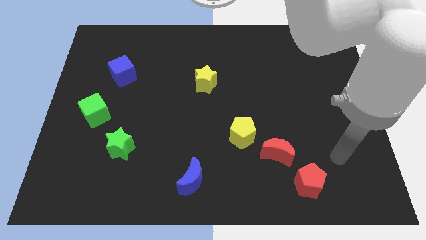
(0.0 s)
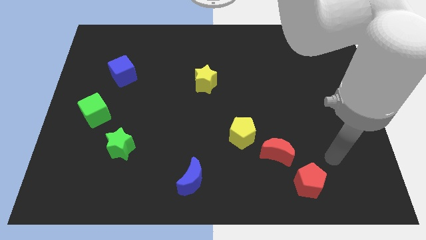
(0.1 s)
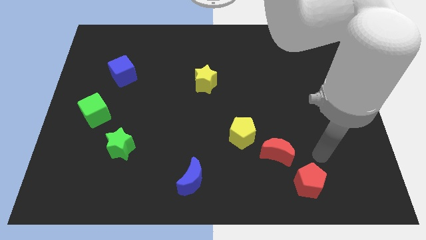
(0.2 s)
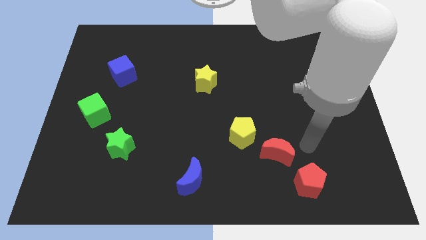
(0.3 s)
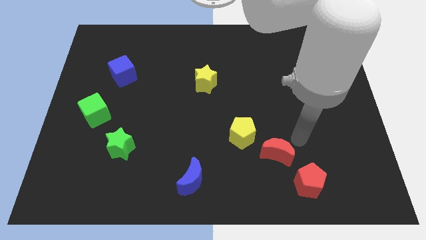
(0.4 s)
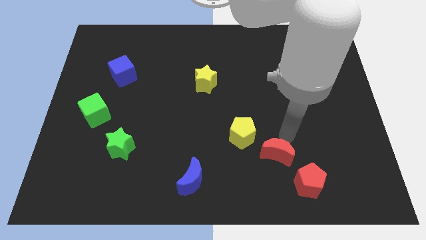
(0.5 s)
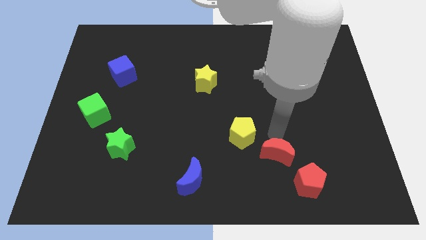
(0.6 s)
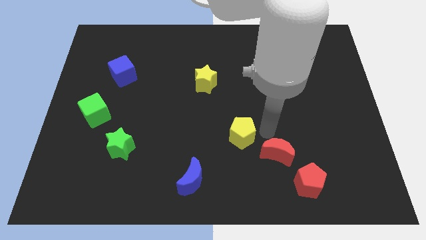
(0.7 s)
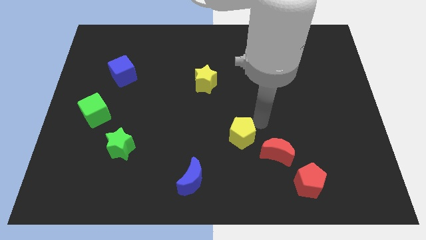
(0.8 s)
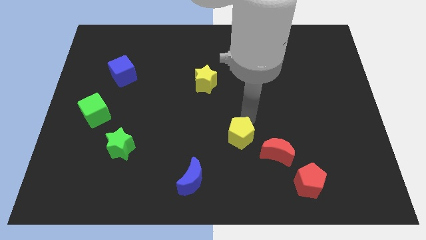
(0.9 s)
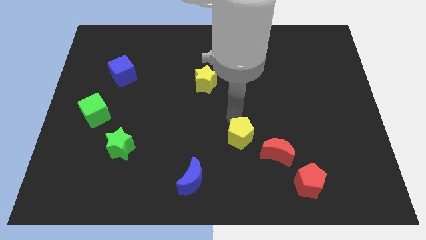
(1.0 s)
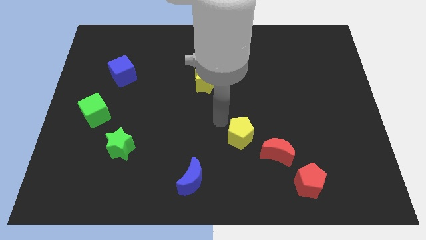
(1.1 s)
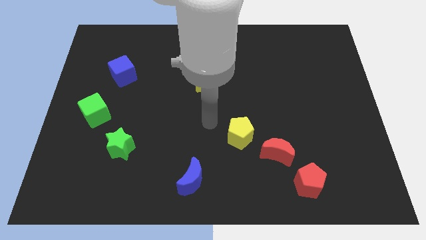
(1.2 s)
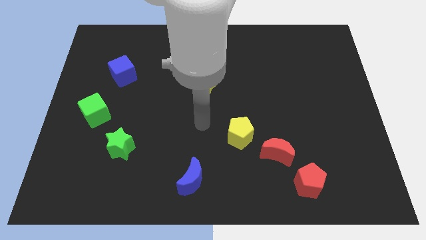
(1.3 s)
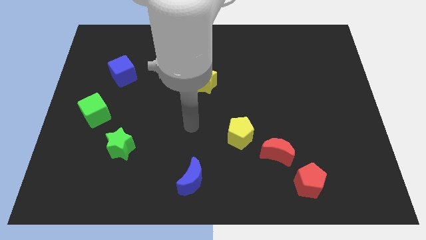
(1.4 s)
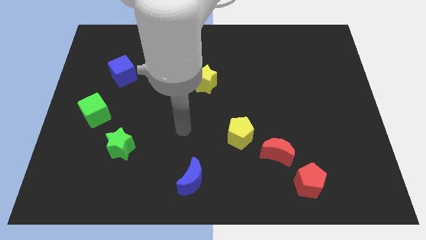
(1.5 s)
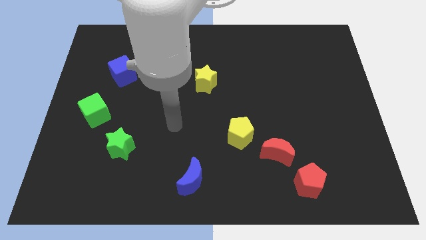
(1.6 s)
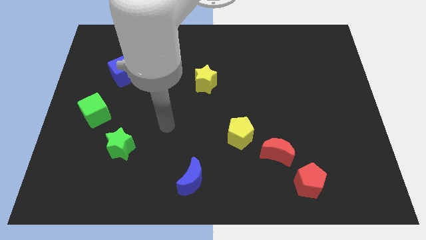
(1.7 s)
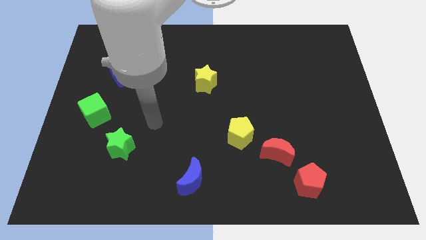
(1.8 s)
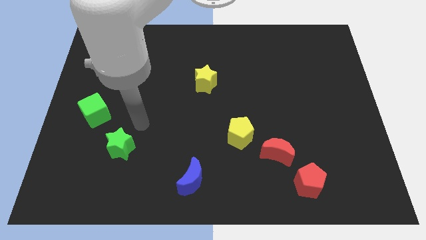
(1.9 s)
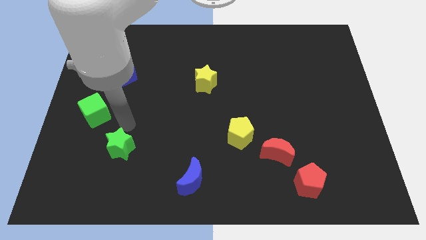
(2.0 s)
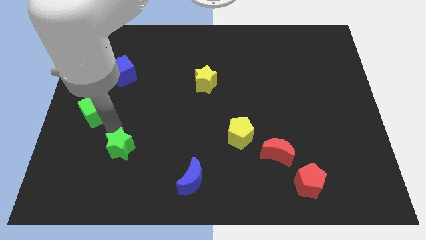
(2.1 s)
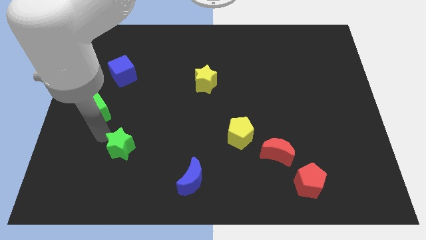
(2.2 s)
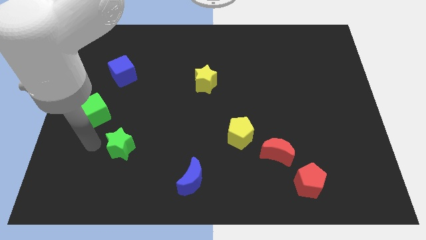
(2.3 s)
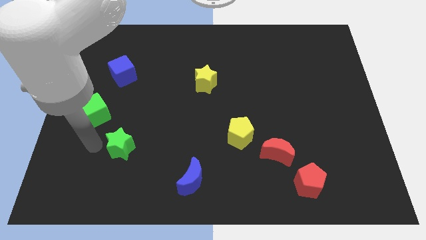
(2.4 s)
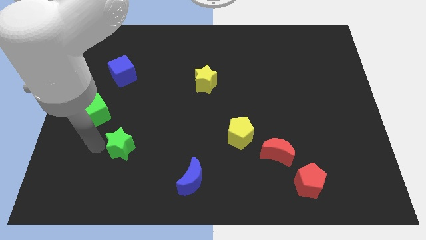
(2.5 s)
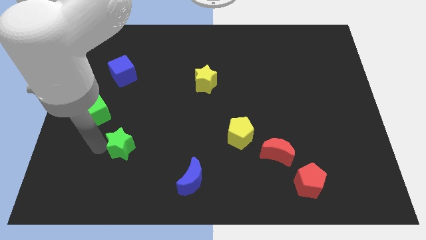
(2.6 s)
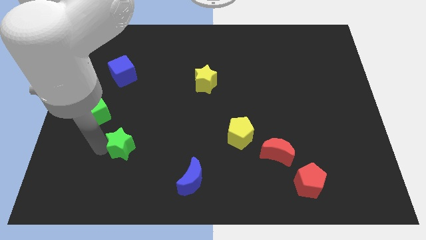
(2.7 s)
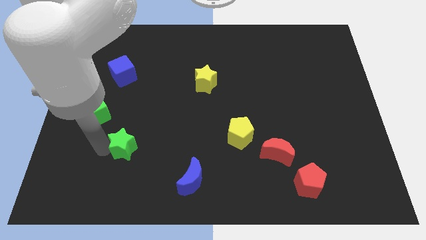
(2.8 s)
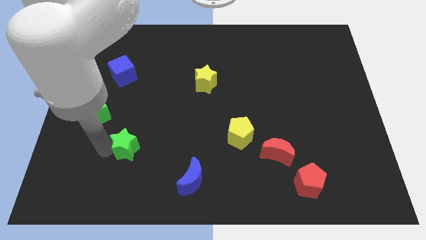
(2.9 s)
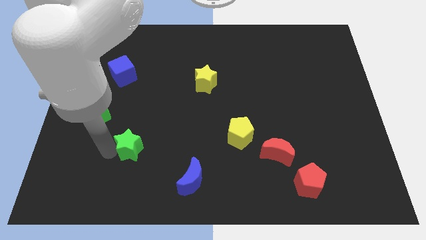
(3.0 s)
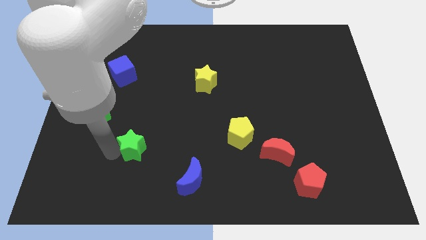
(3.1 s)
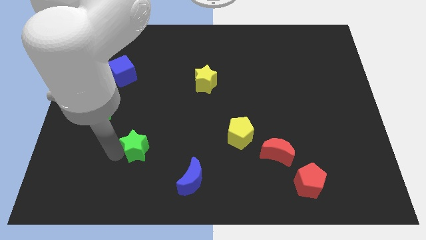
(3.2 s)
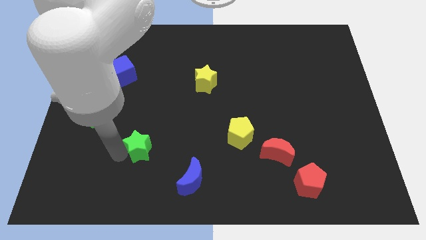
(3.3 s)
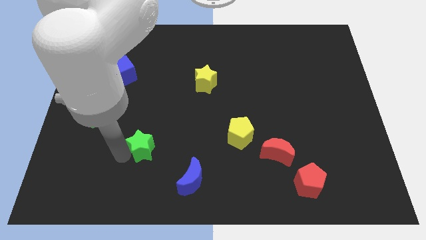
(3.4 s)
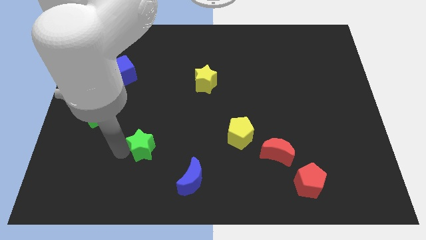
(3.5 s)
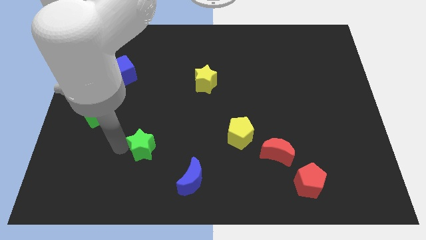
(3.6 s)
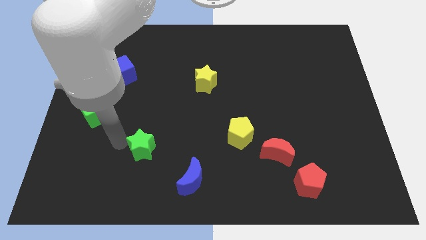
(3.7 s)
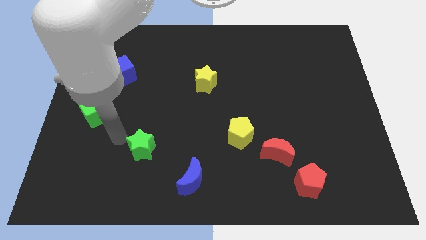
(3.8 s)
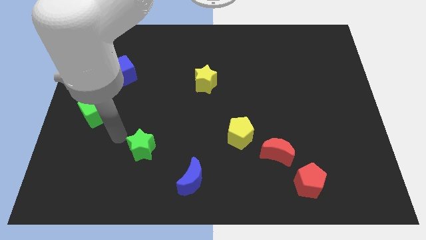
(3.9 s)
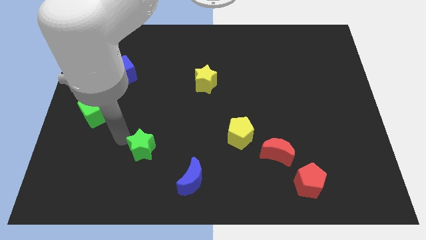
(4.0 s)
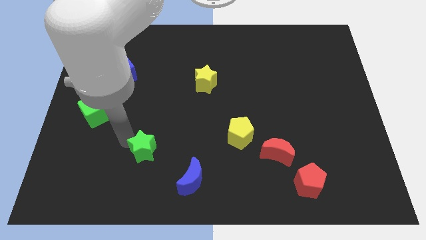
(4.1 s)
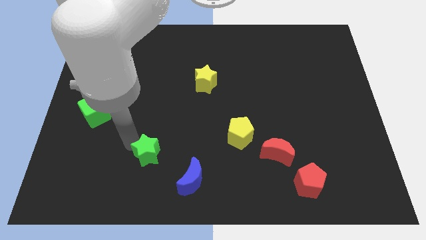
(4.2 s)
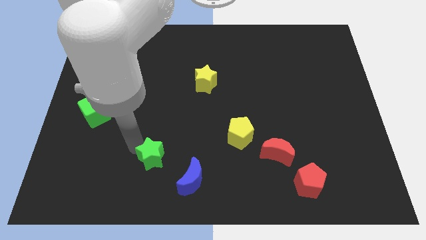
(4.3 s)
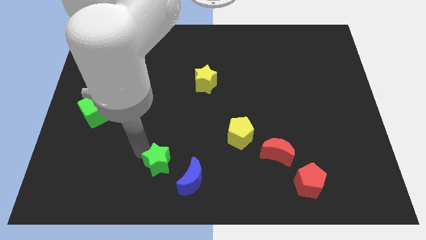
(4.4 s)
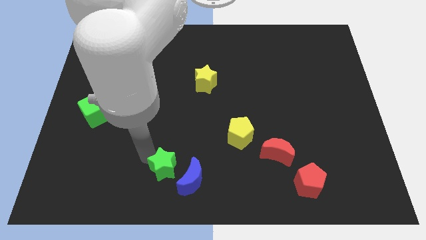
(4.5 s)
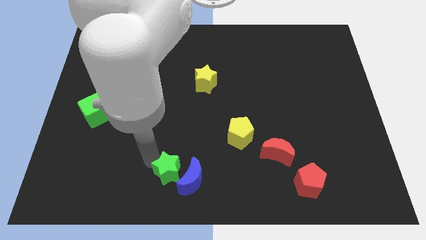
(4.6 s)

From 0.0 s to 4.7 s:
slide the green star towards the blue moon

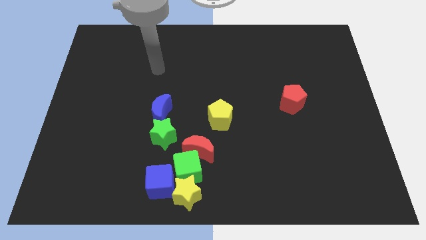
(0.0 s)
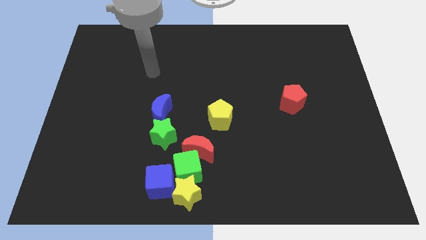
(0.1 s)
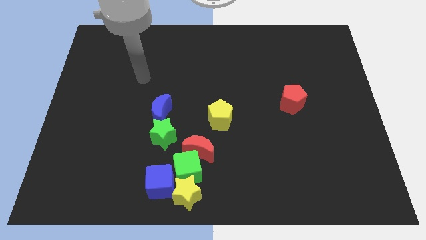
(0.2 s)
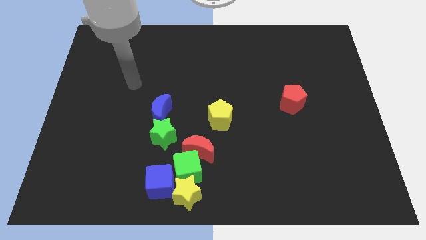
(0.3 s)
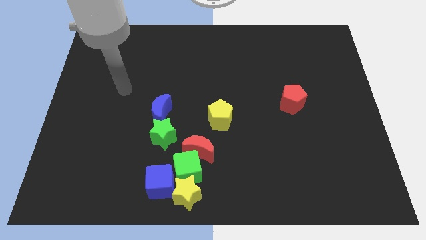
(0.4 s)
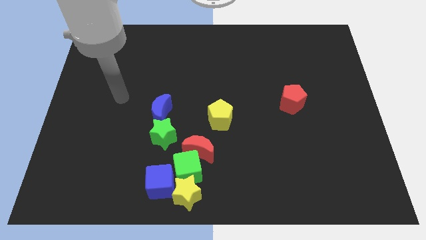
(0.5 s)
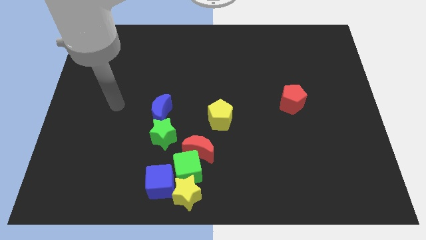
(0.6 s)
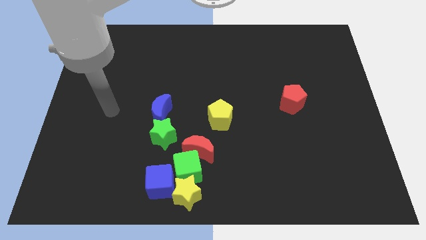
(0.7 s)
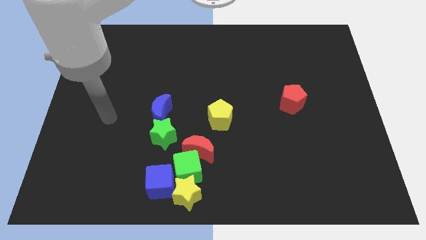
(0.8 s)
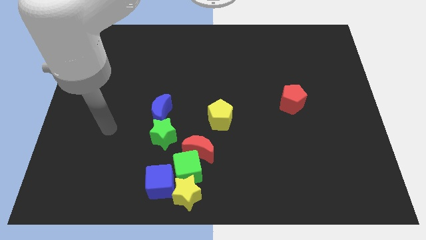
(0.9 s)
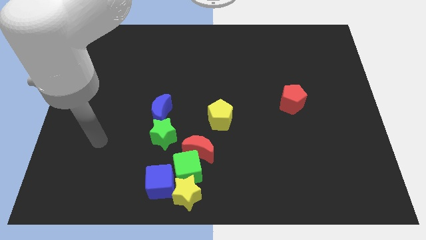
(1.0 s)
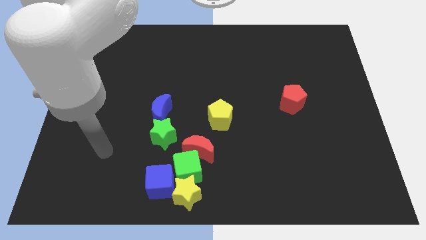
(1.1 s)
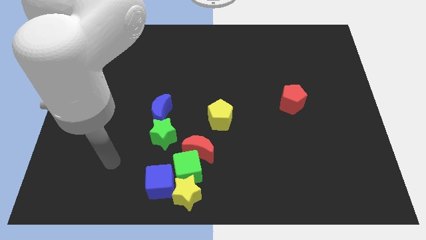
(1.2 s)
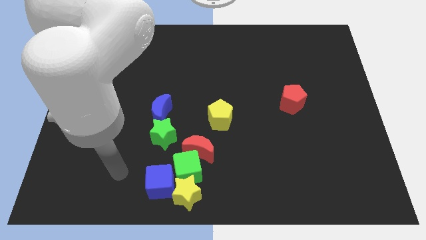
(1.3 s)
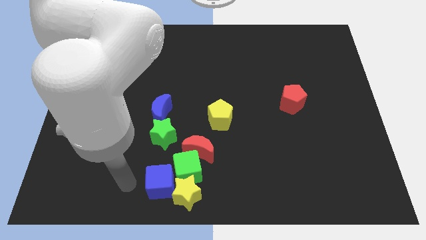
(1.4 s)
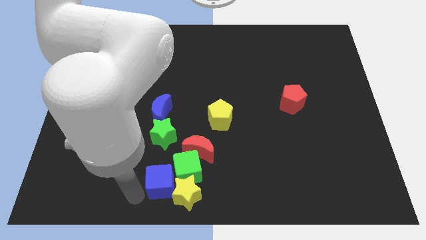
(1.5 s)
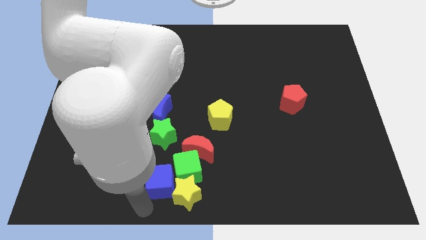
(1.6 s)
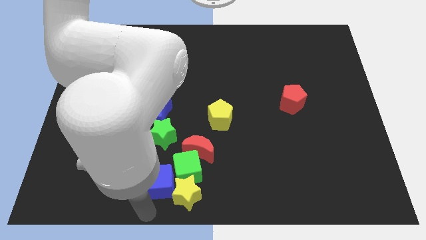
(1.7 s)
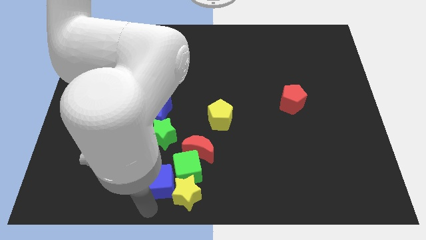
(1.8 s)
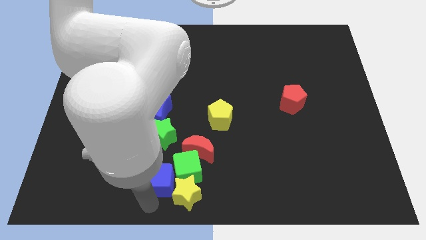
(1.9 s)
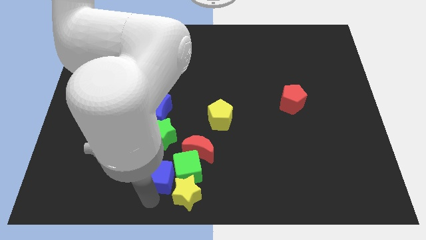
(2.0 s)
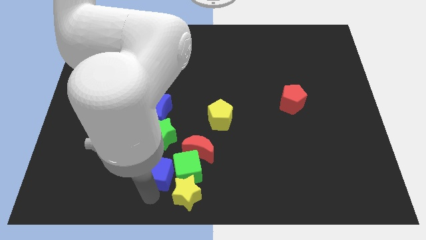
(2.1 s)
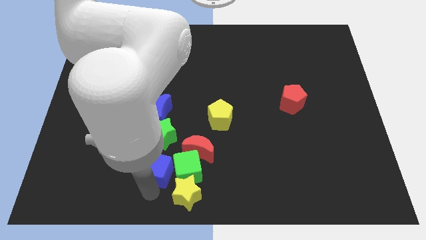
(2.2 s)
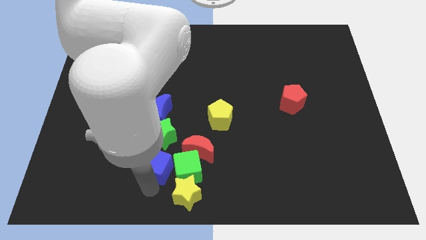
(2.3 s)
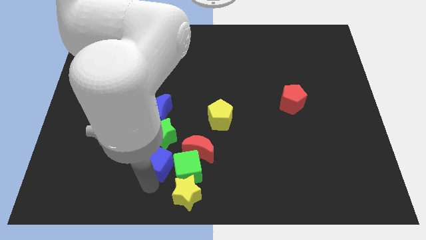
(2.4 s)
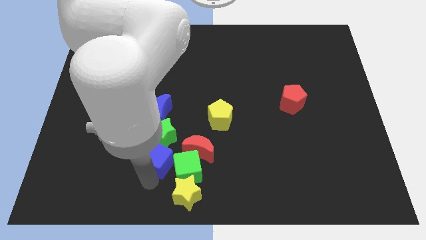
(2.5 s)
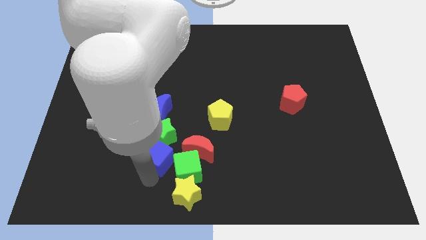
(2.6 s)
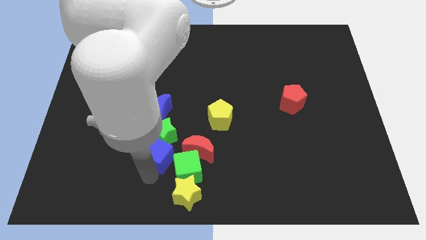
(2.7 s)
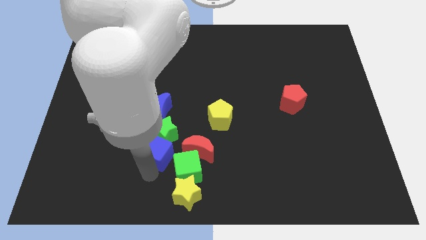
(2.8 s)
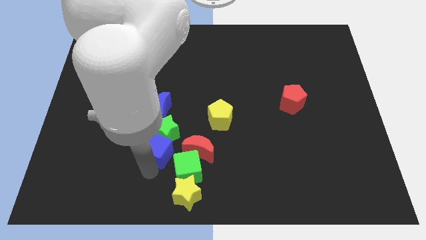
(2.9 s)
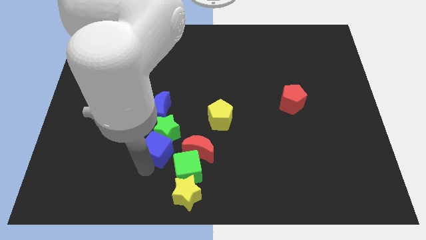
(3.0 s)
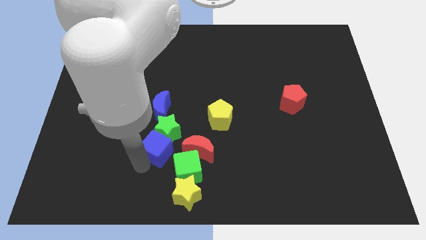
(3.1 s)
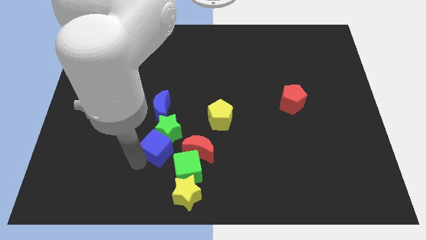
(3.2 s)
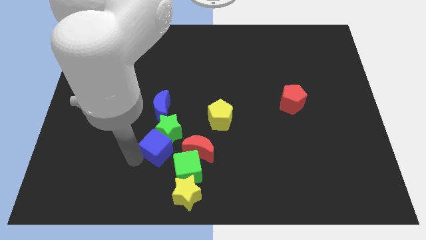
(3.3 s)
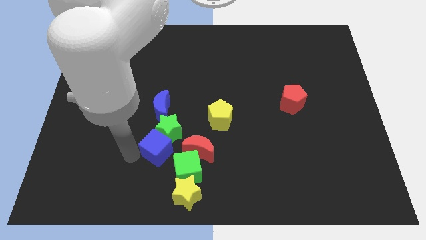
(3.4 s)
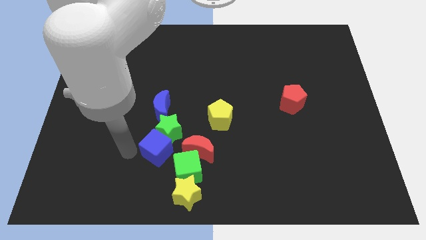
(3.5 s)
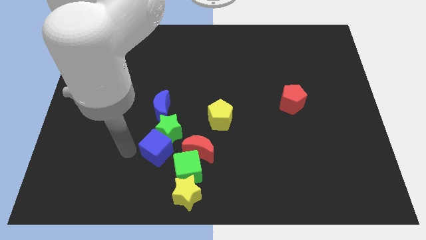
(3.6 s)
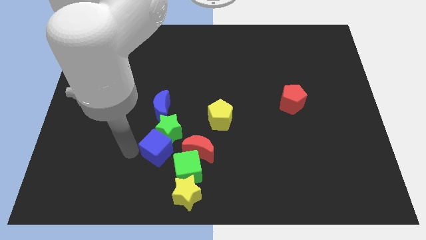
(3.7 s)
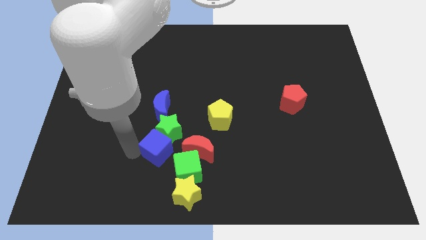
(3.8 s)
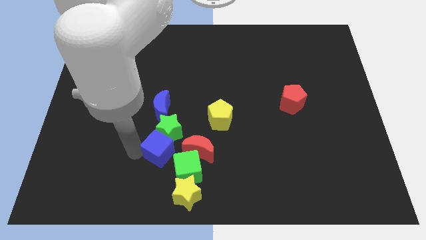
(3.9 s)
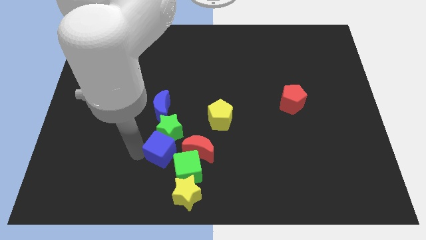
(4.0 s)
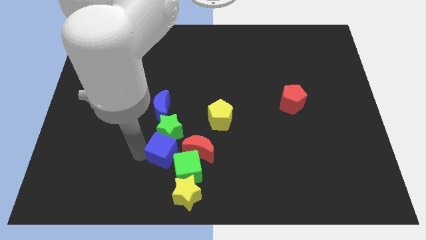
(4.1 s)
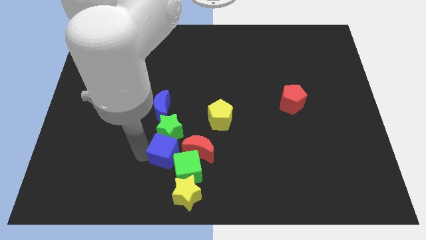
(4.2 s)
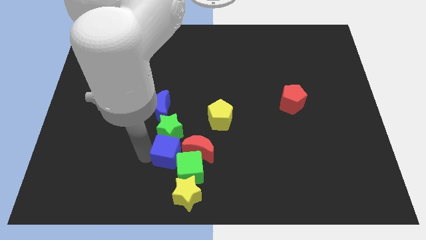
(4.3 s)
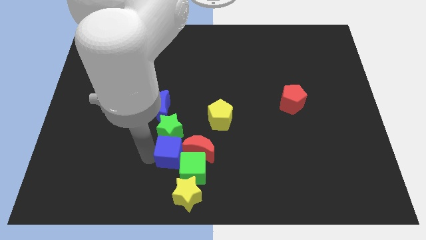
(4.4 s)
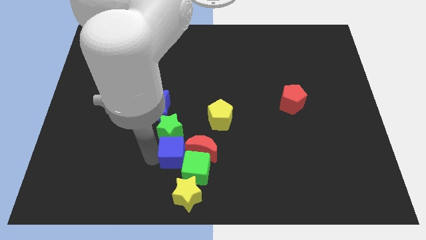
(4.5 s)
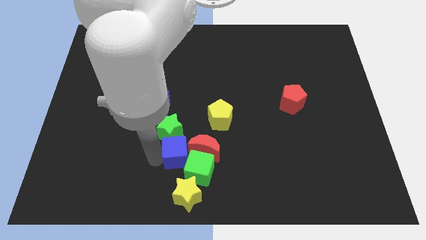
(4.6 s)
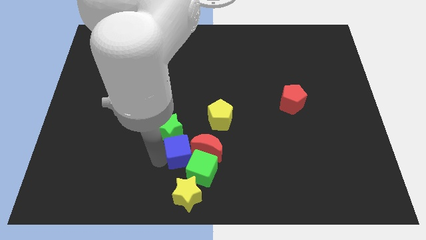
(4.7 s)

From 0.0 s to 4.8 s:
push the blue cube towards the red moon
